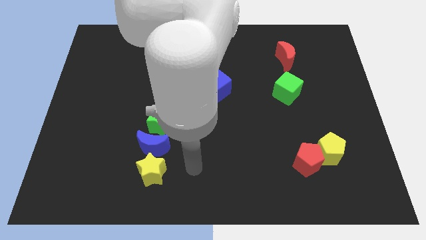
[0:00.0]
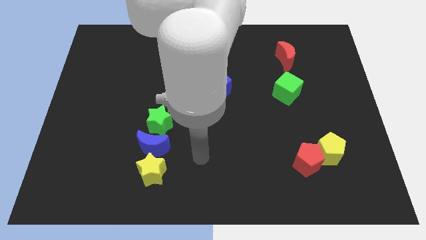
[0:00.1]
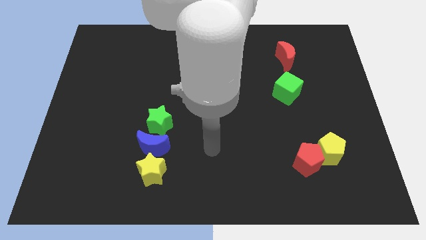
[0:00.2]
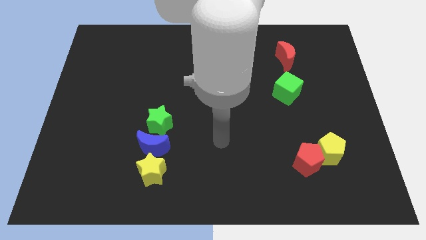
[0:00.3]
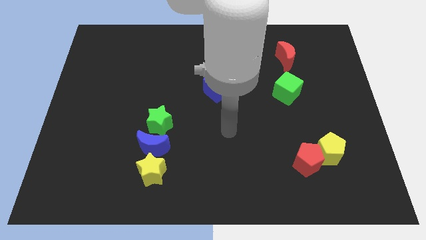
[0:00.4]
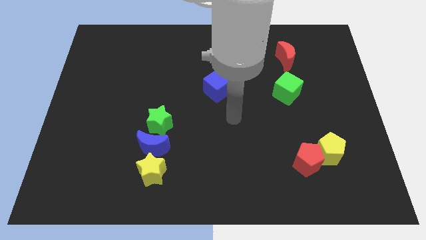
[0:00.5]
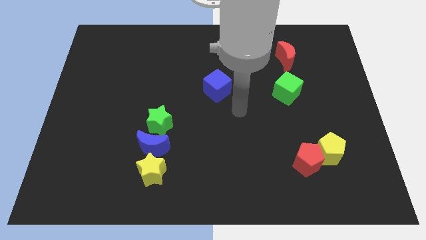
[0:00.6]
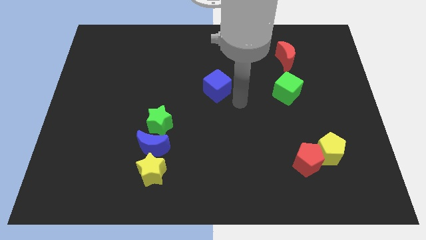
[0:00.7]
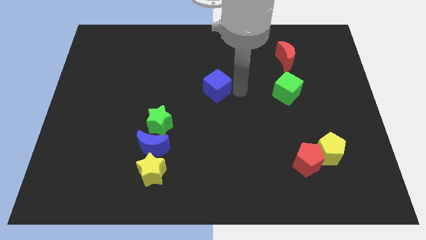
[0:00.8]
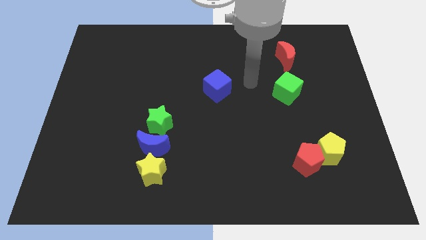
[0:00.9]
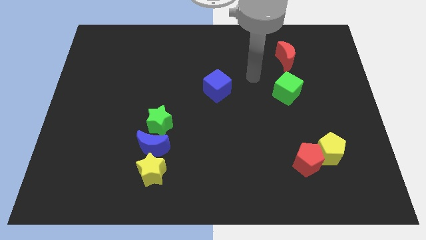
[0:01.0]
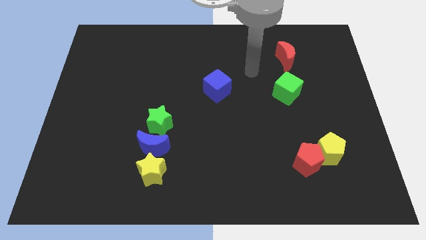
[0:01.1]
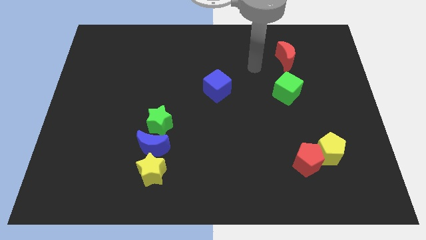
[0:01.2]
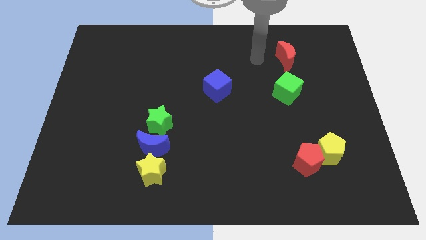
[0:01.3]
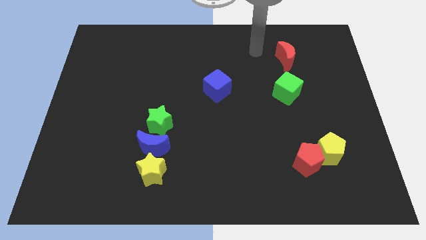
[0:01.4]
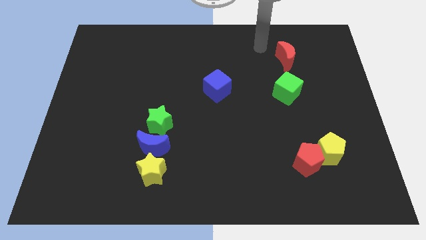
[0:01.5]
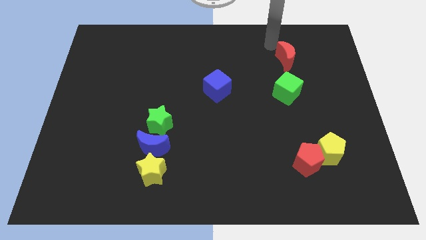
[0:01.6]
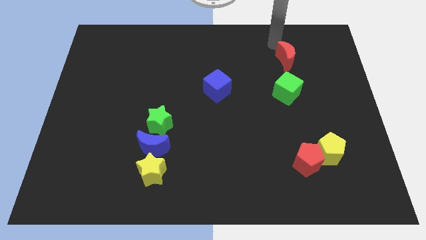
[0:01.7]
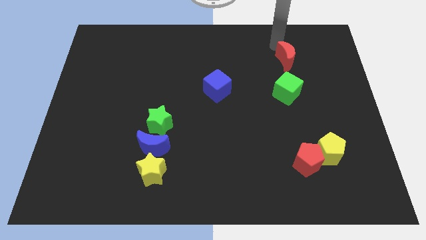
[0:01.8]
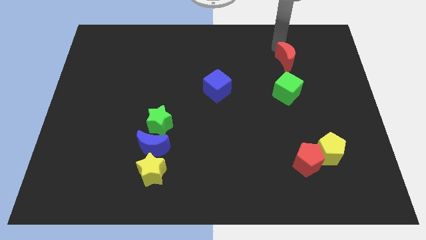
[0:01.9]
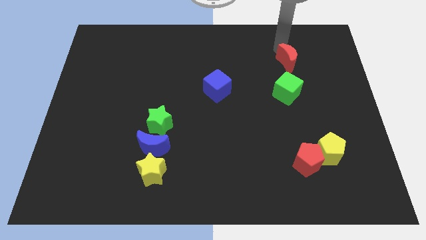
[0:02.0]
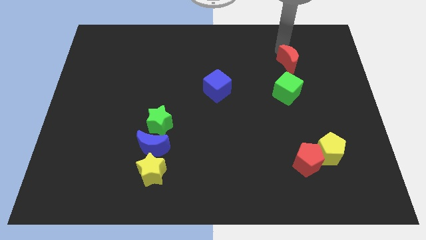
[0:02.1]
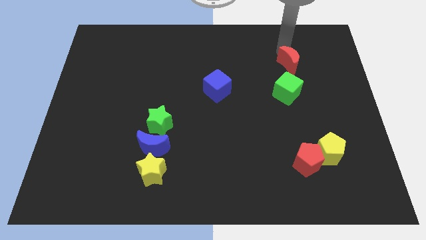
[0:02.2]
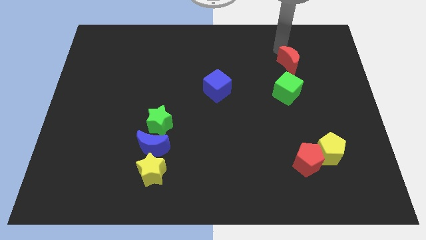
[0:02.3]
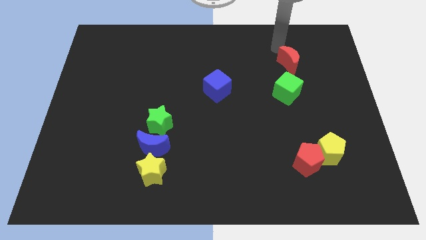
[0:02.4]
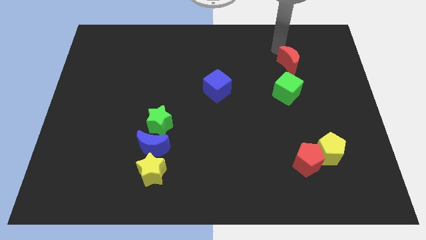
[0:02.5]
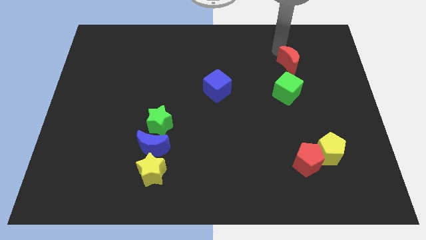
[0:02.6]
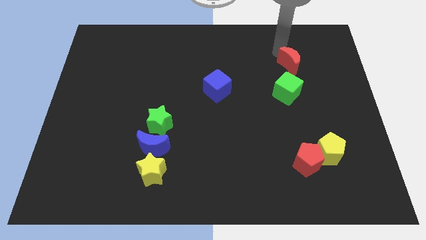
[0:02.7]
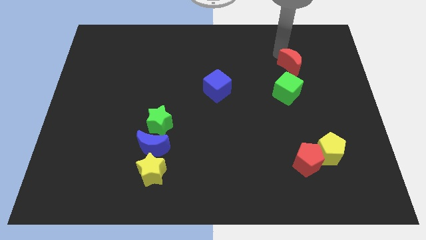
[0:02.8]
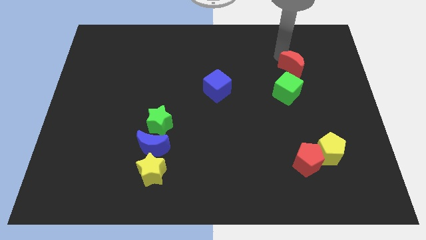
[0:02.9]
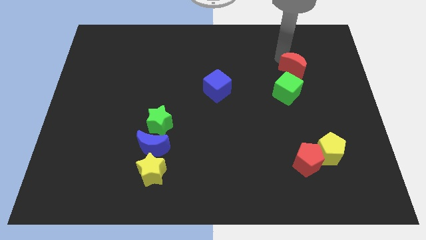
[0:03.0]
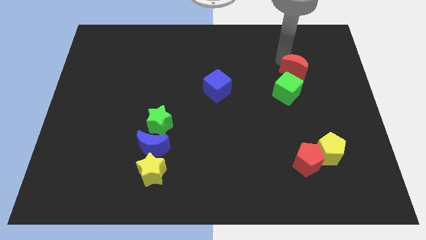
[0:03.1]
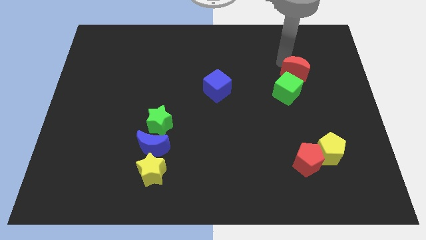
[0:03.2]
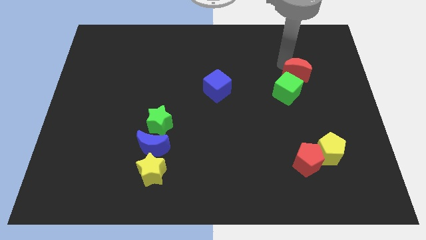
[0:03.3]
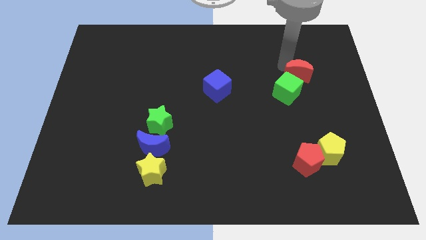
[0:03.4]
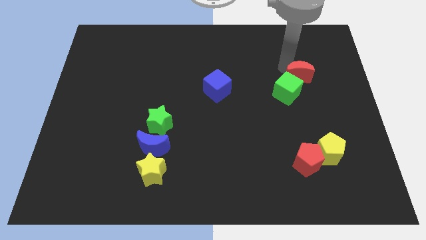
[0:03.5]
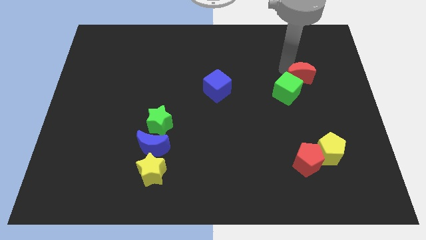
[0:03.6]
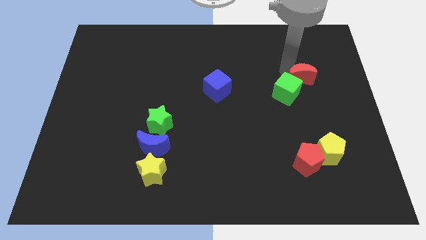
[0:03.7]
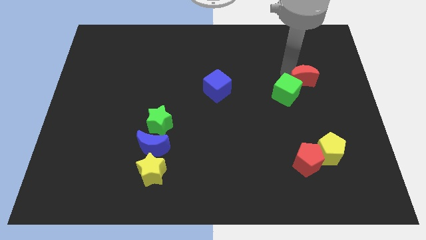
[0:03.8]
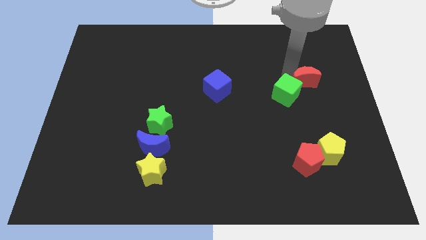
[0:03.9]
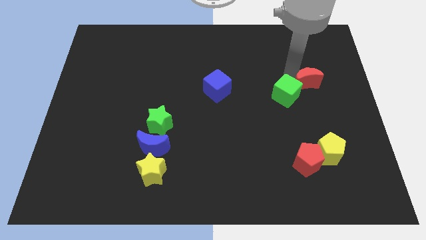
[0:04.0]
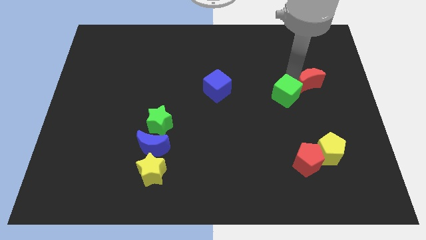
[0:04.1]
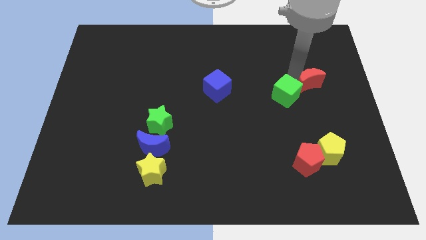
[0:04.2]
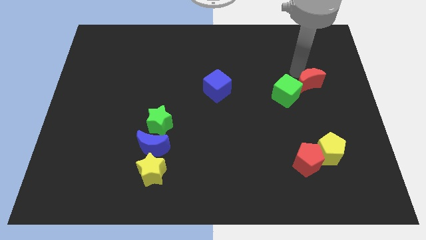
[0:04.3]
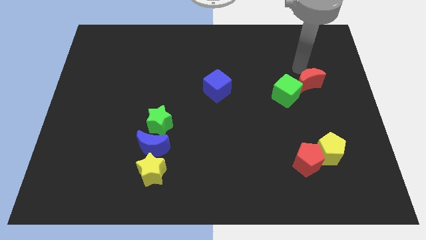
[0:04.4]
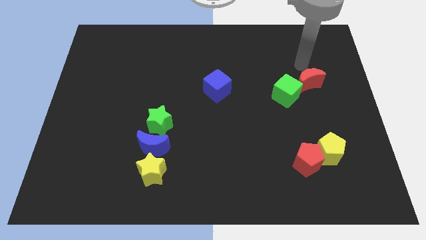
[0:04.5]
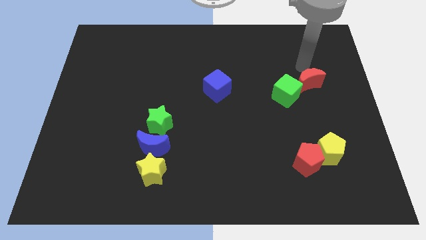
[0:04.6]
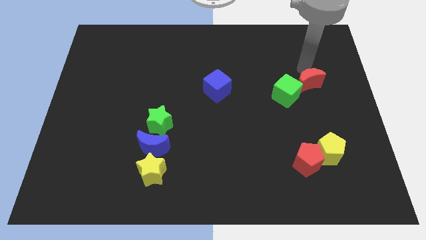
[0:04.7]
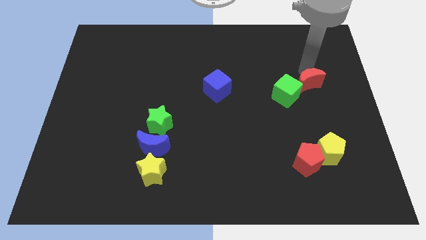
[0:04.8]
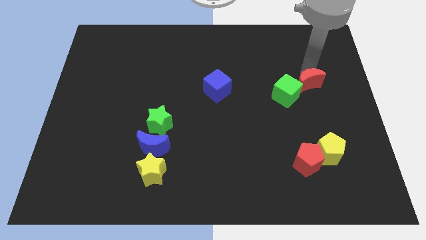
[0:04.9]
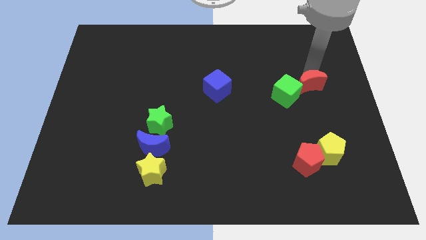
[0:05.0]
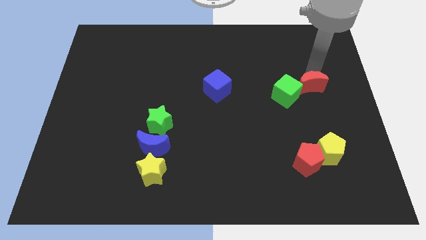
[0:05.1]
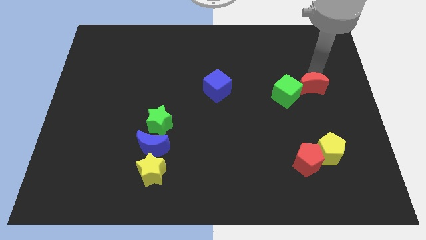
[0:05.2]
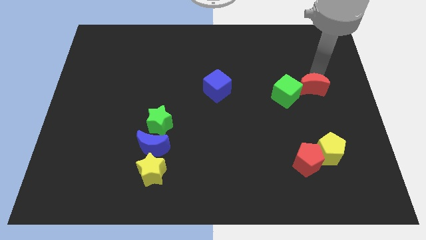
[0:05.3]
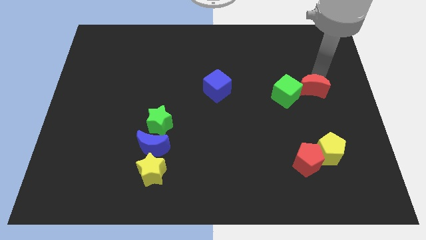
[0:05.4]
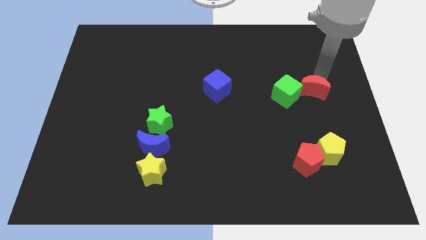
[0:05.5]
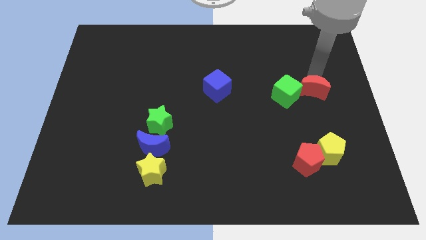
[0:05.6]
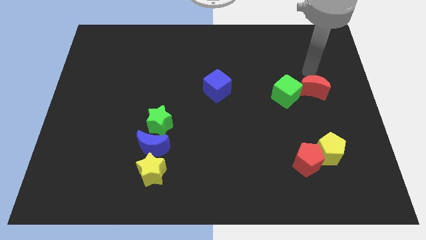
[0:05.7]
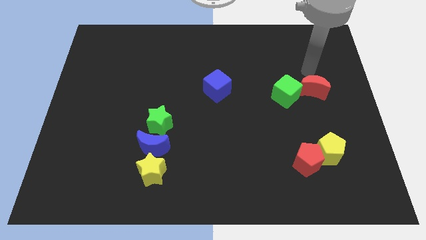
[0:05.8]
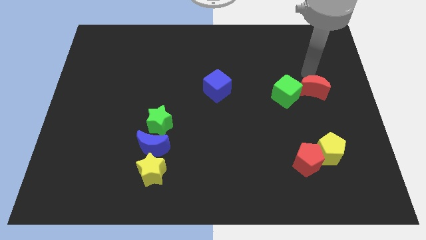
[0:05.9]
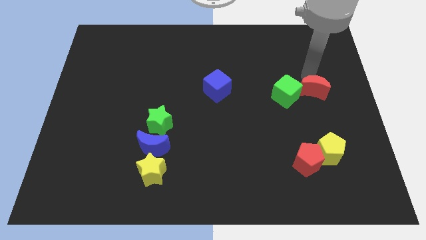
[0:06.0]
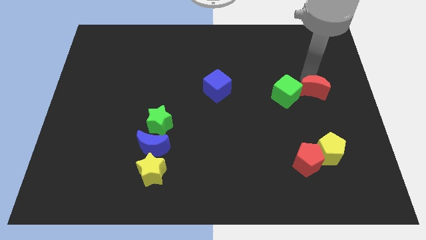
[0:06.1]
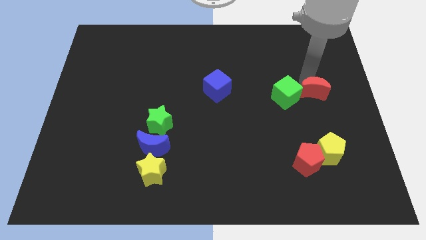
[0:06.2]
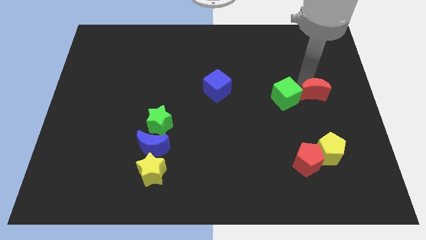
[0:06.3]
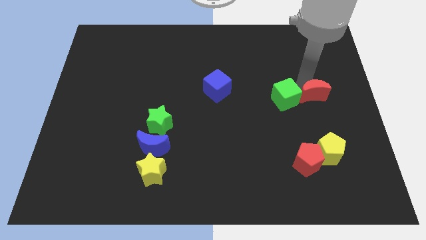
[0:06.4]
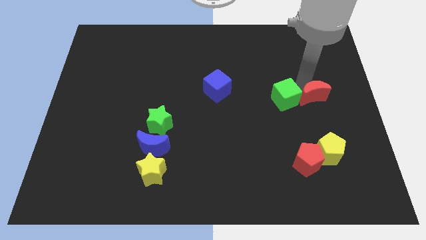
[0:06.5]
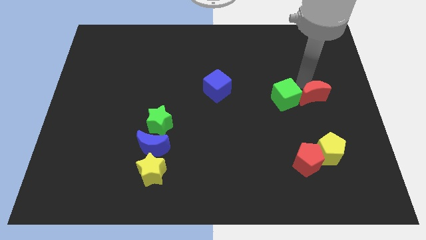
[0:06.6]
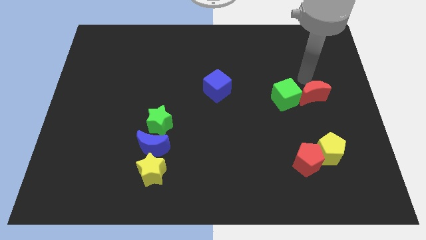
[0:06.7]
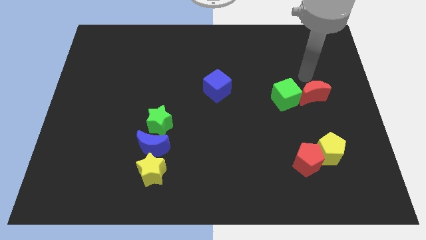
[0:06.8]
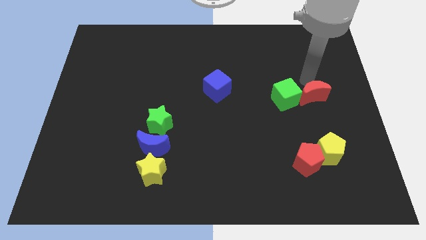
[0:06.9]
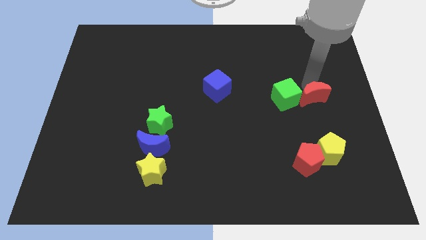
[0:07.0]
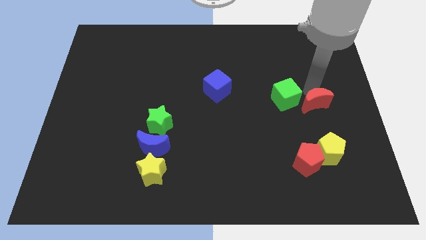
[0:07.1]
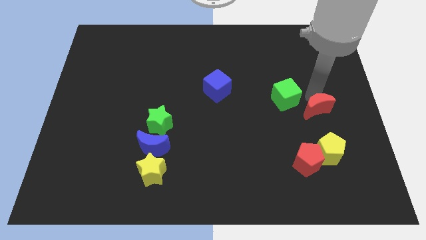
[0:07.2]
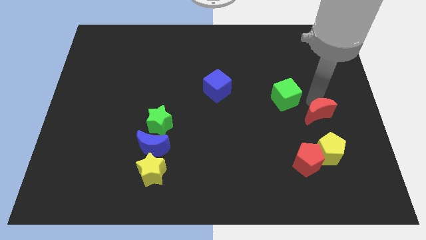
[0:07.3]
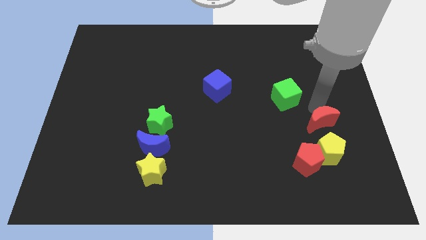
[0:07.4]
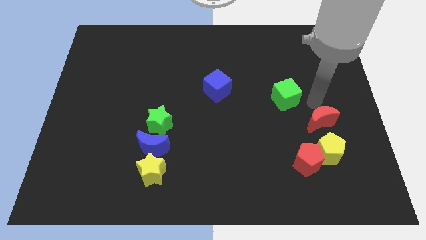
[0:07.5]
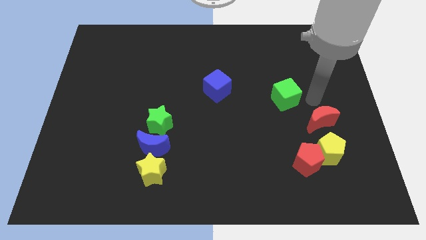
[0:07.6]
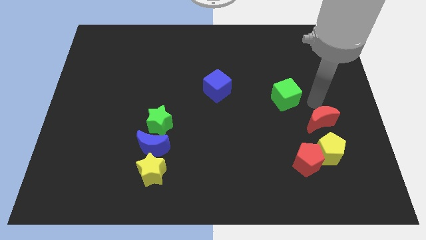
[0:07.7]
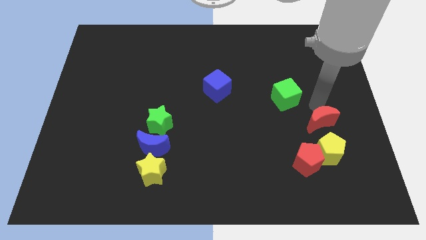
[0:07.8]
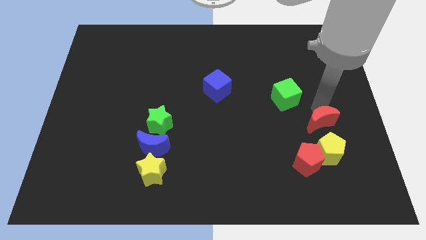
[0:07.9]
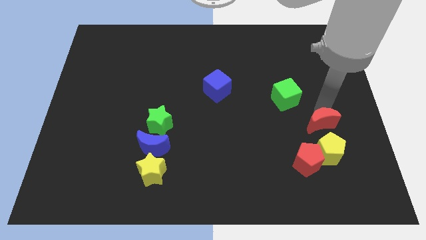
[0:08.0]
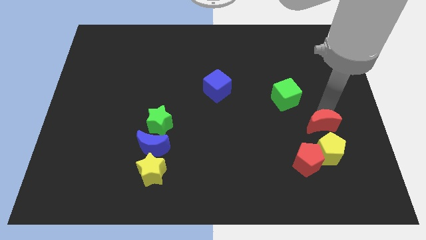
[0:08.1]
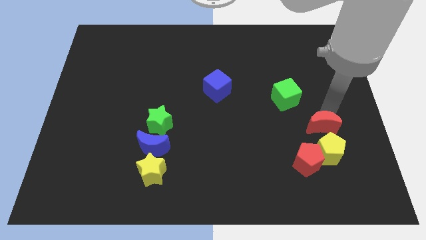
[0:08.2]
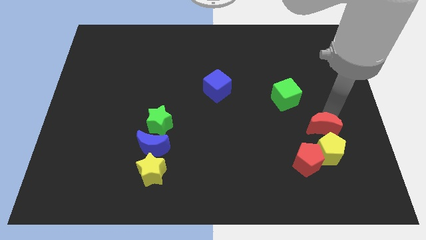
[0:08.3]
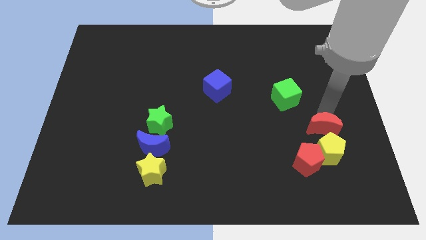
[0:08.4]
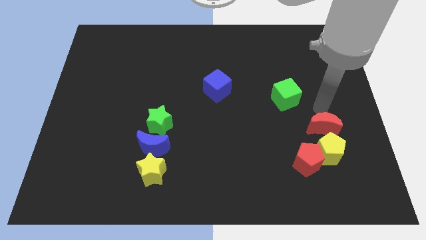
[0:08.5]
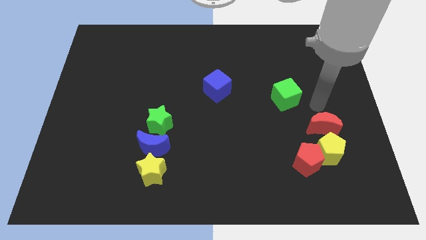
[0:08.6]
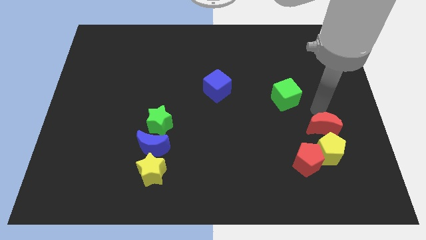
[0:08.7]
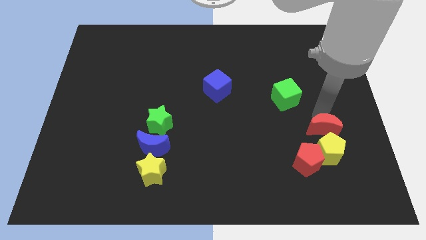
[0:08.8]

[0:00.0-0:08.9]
move the red moon close to the yellow pentagon
